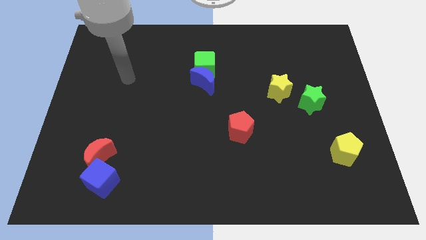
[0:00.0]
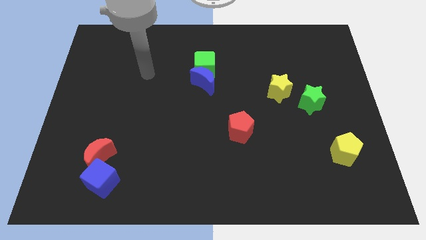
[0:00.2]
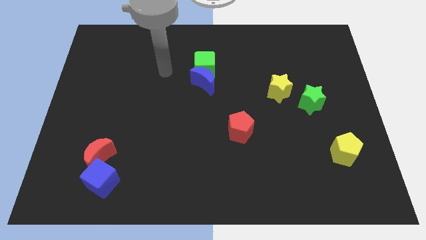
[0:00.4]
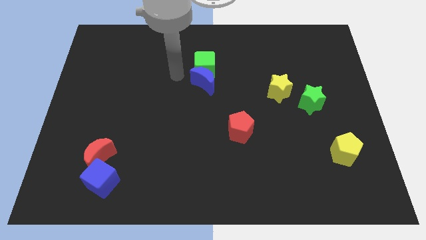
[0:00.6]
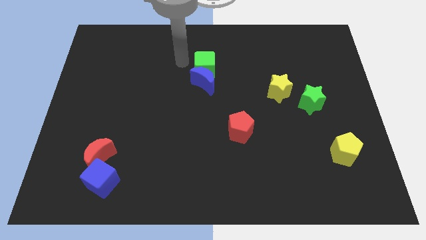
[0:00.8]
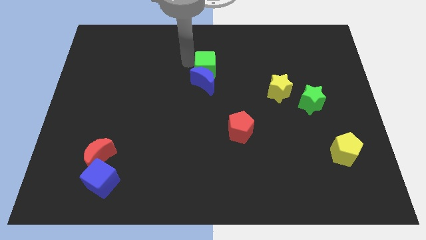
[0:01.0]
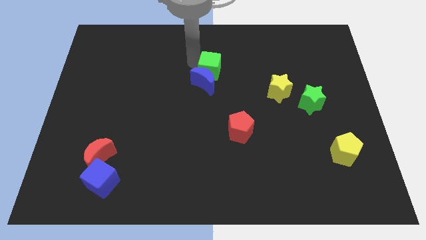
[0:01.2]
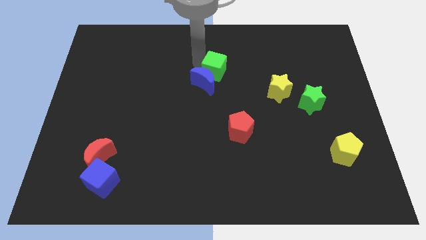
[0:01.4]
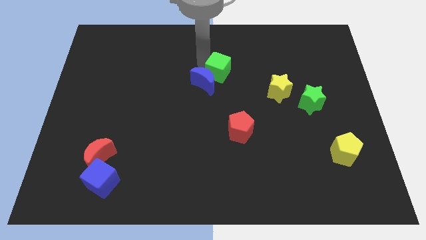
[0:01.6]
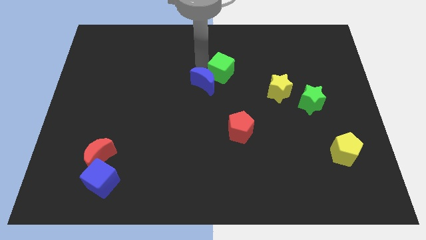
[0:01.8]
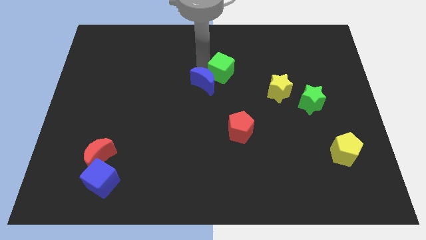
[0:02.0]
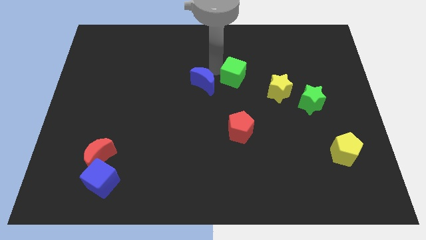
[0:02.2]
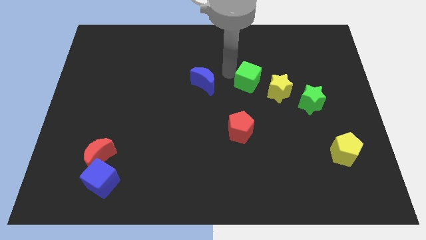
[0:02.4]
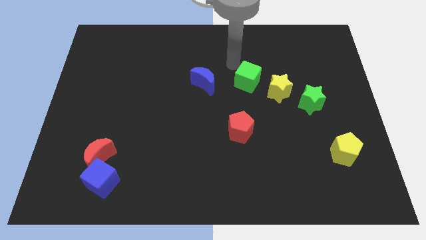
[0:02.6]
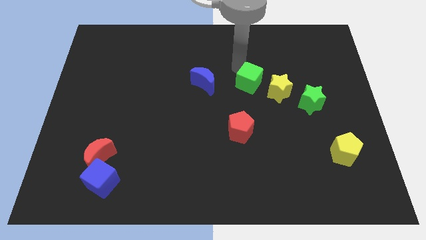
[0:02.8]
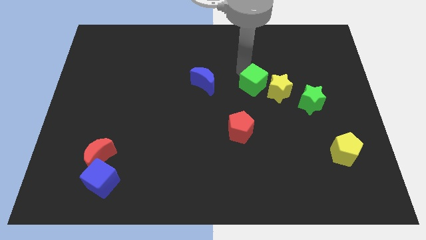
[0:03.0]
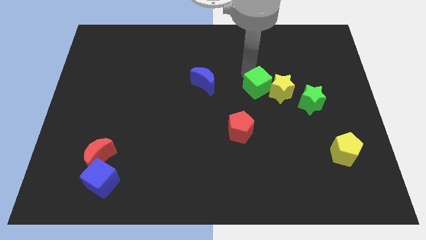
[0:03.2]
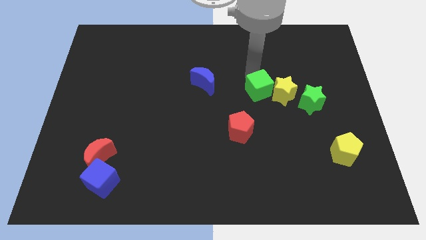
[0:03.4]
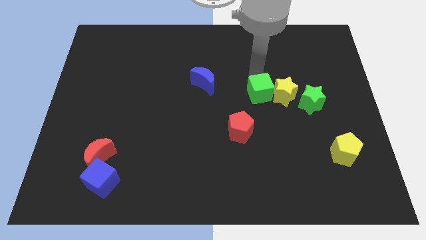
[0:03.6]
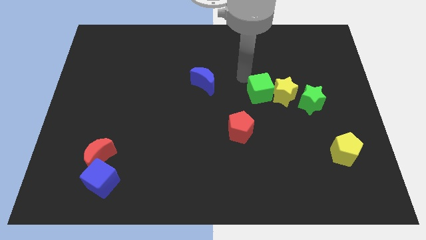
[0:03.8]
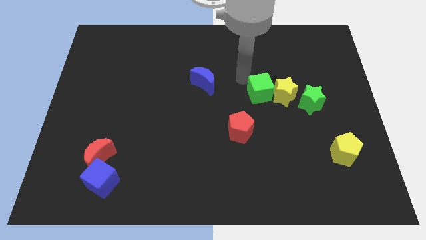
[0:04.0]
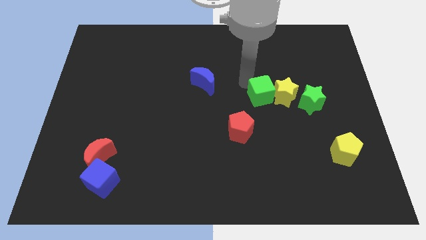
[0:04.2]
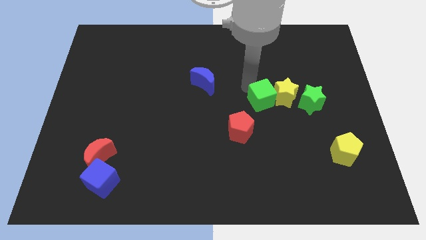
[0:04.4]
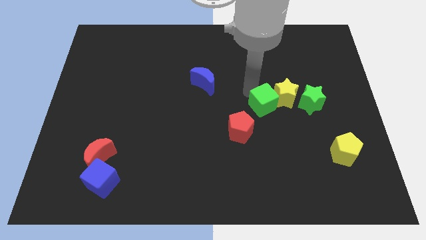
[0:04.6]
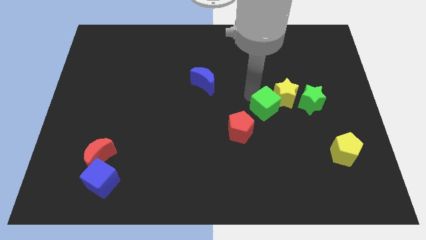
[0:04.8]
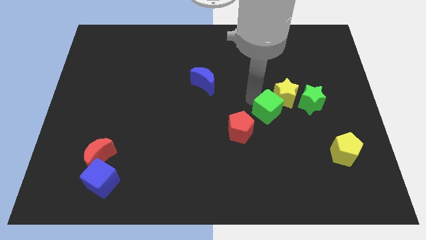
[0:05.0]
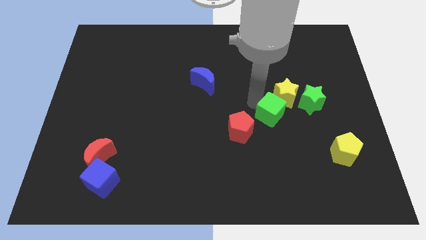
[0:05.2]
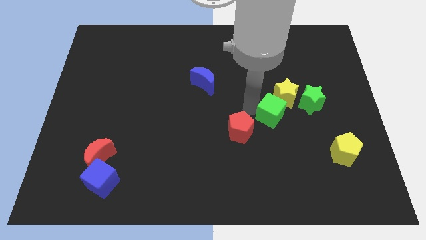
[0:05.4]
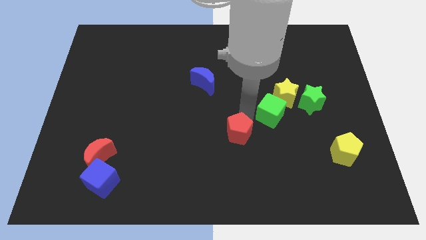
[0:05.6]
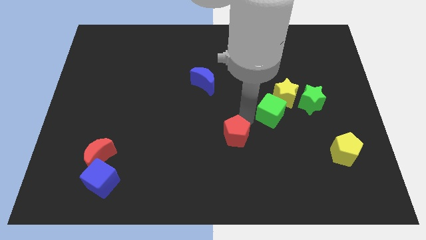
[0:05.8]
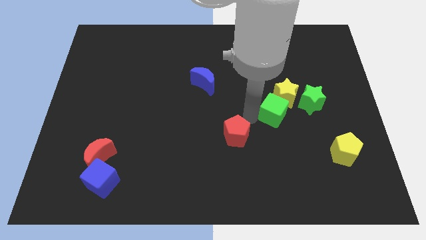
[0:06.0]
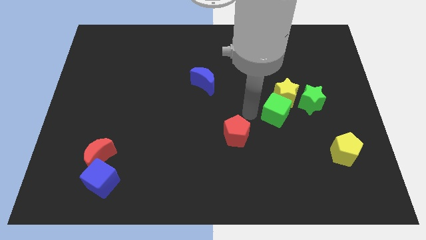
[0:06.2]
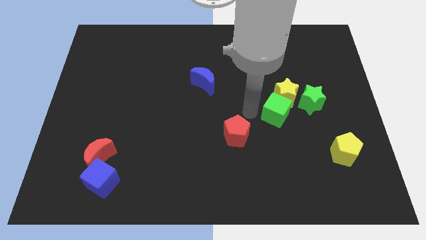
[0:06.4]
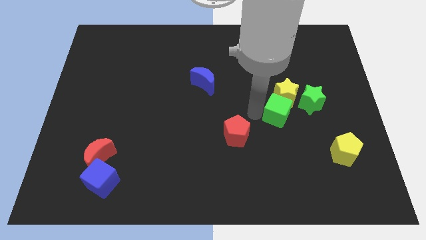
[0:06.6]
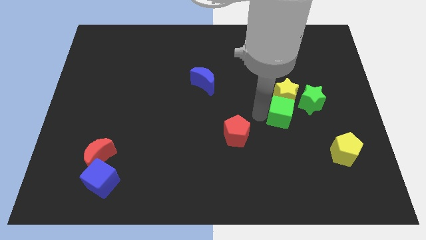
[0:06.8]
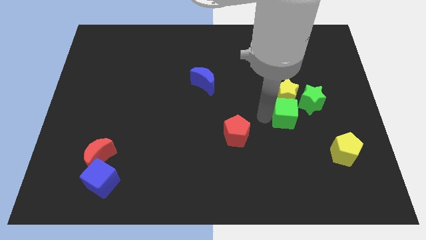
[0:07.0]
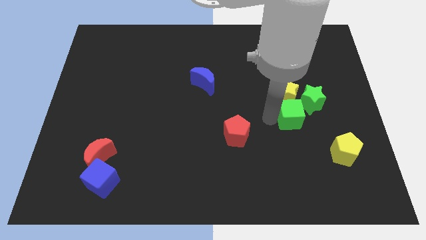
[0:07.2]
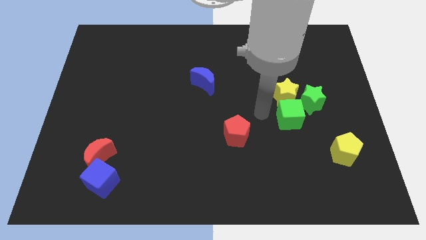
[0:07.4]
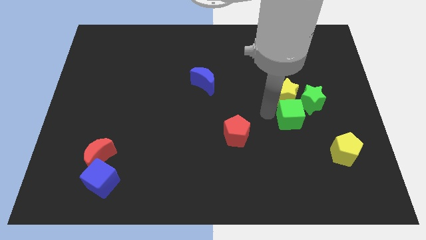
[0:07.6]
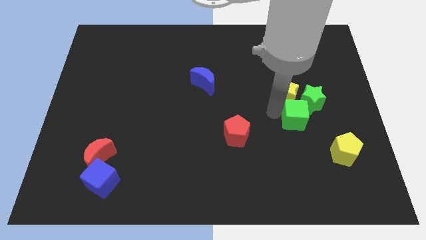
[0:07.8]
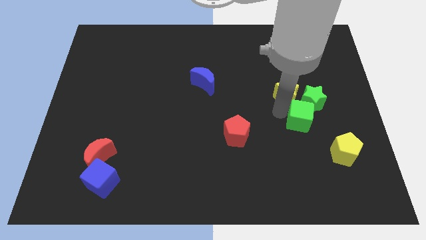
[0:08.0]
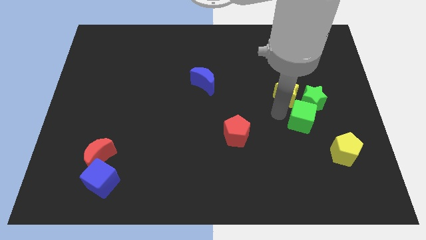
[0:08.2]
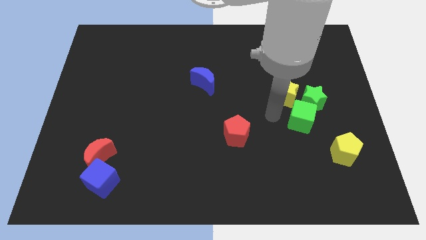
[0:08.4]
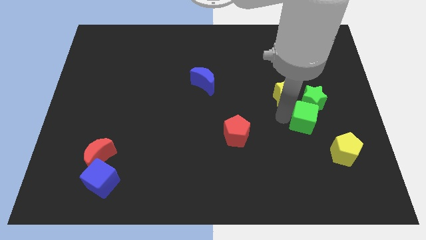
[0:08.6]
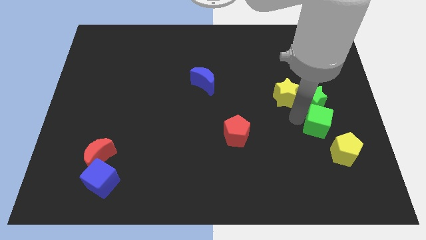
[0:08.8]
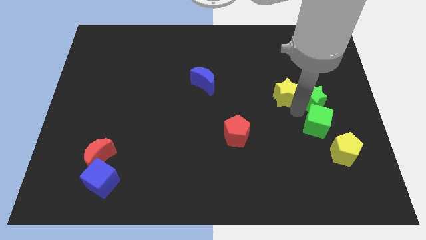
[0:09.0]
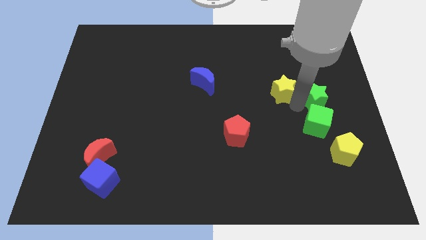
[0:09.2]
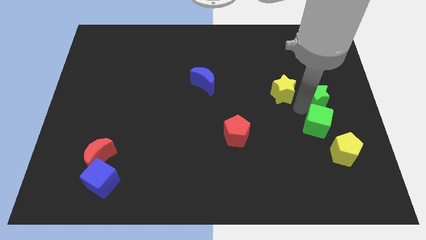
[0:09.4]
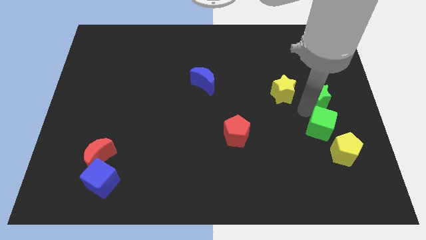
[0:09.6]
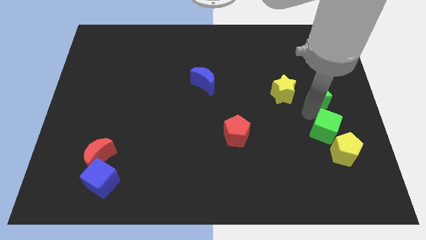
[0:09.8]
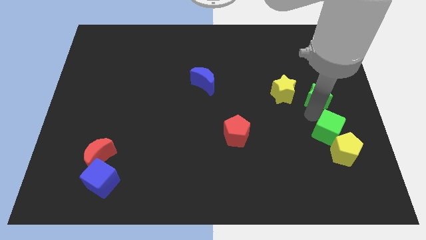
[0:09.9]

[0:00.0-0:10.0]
move the green cube towards the yellow pentagon

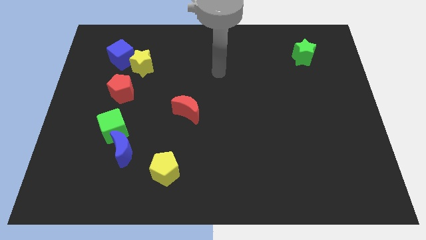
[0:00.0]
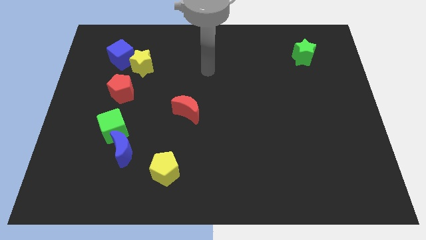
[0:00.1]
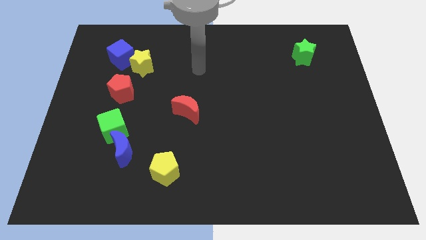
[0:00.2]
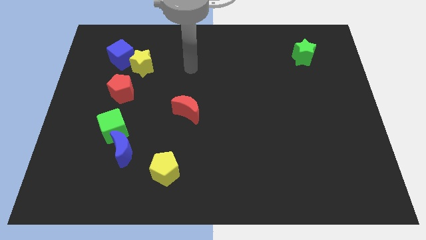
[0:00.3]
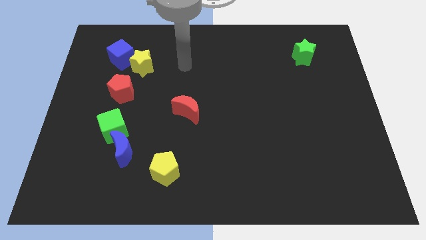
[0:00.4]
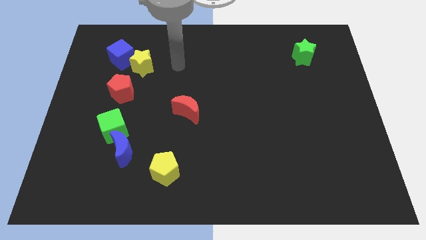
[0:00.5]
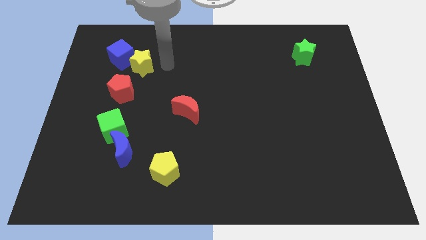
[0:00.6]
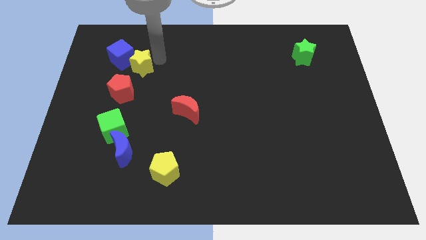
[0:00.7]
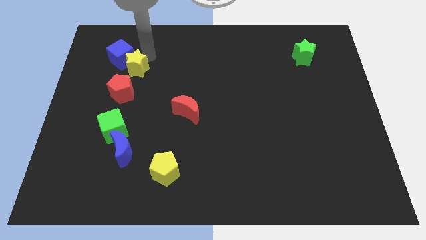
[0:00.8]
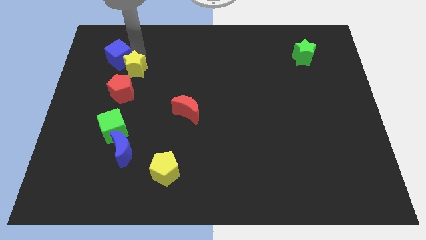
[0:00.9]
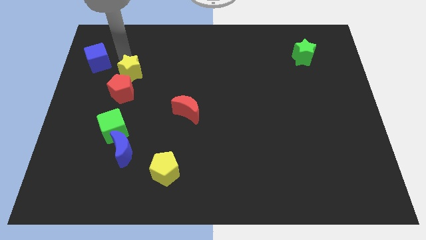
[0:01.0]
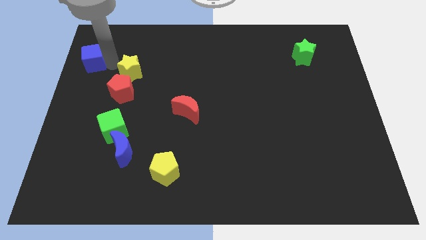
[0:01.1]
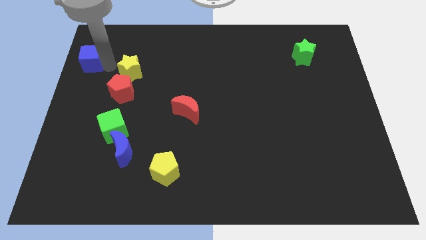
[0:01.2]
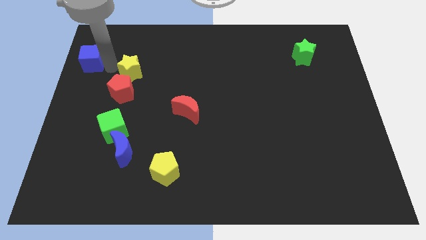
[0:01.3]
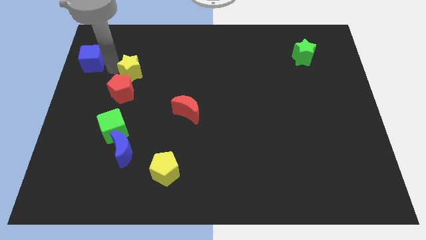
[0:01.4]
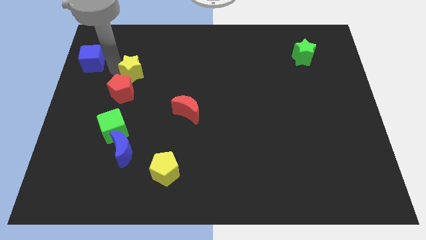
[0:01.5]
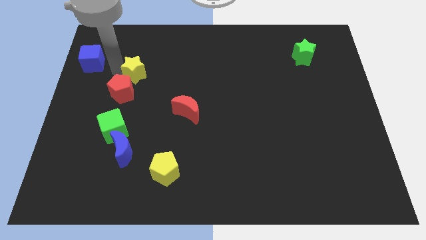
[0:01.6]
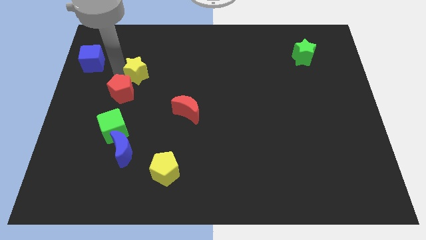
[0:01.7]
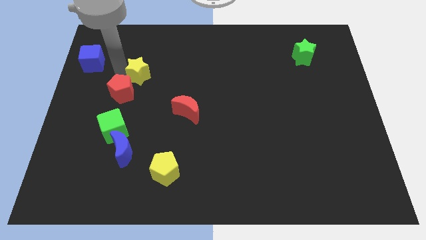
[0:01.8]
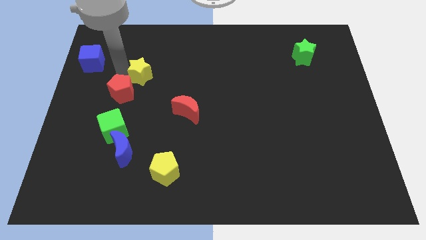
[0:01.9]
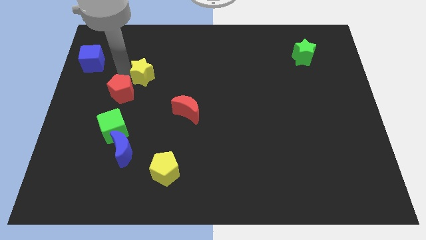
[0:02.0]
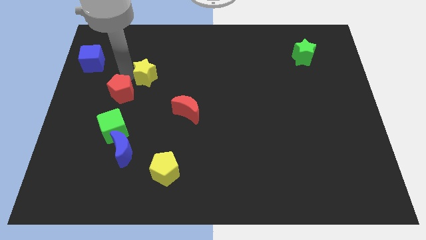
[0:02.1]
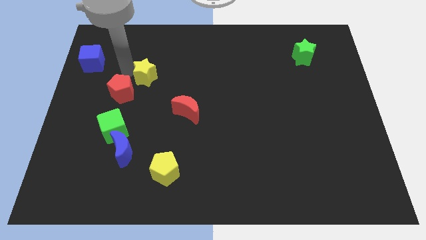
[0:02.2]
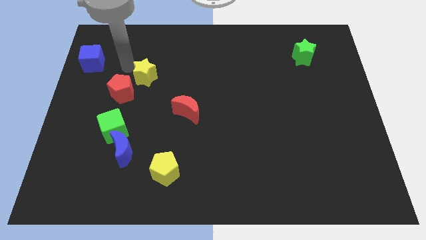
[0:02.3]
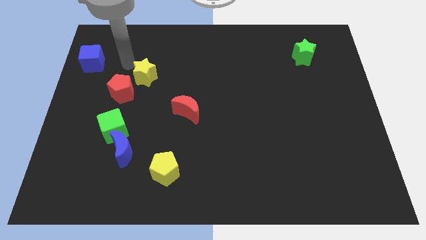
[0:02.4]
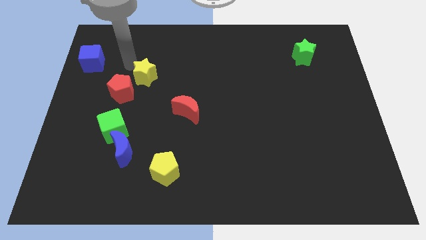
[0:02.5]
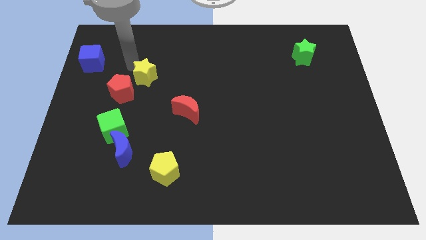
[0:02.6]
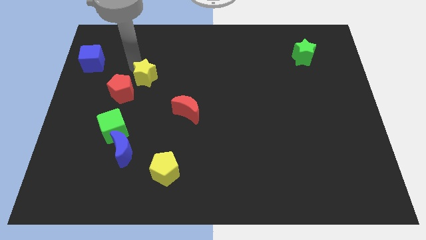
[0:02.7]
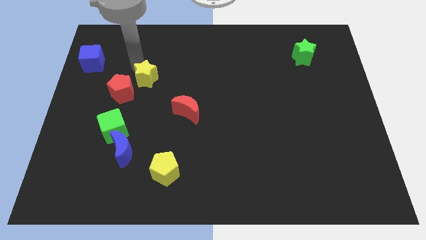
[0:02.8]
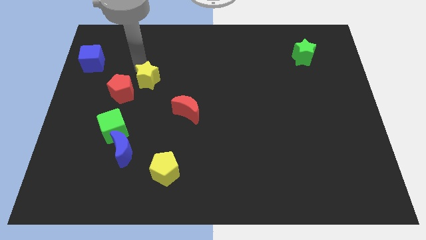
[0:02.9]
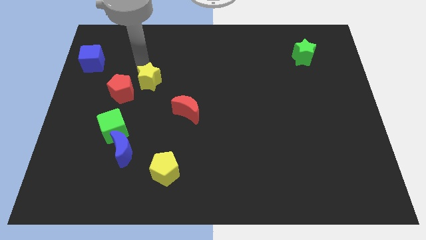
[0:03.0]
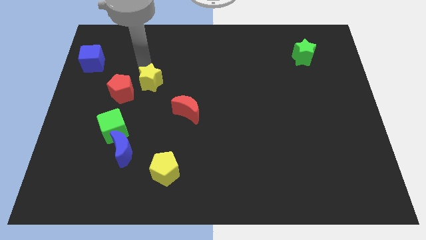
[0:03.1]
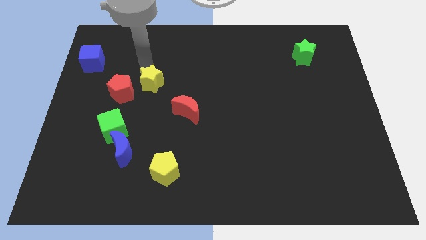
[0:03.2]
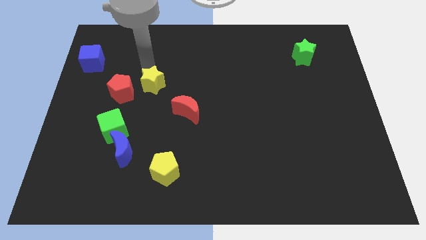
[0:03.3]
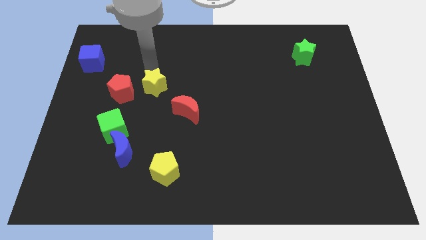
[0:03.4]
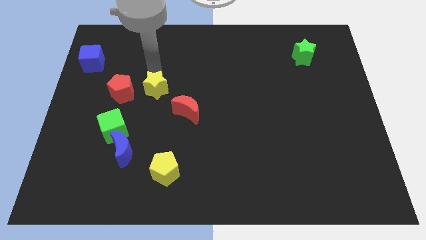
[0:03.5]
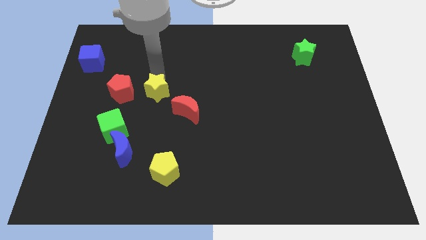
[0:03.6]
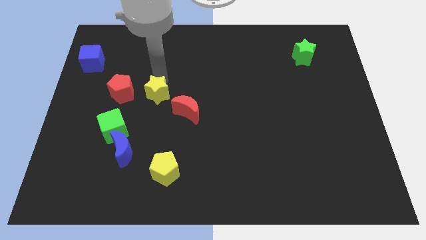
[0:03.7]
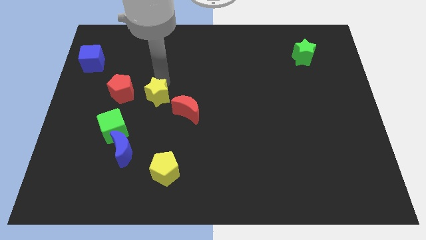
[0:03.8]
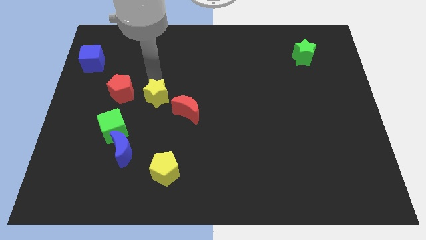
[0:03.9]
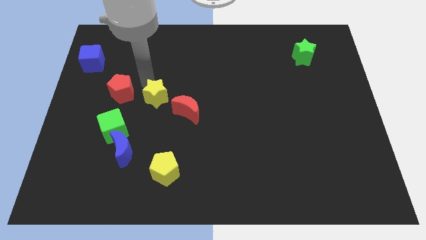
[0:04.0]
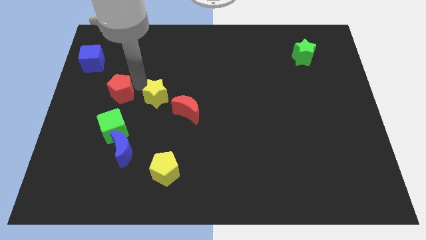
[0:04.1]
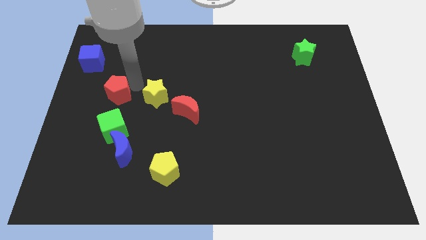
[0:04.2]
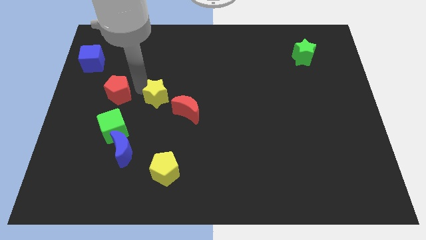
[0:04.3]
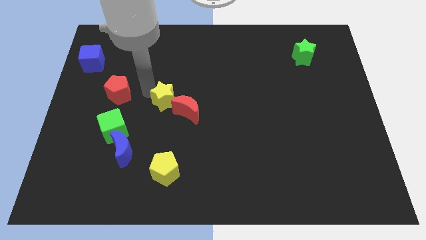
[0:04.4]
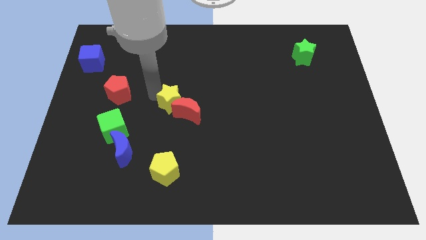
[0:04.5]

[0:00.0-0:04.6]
put the yellow star close to the red moon
